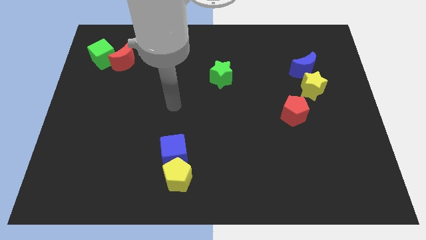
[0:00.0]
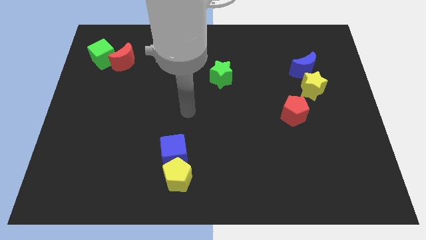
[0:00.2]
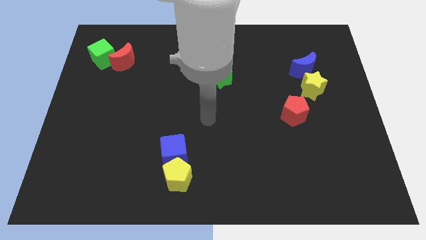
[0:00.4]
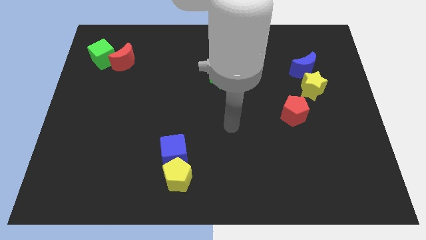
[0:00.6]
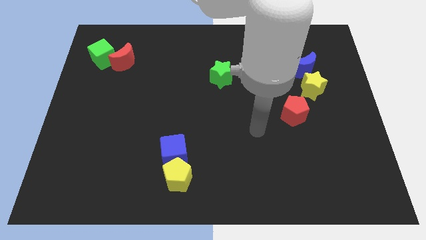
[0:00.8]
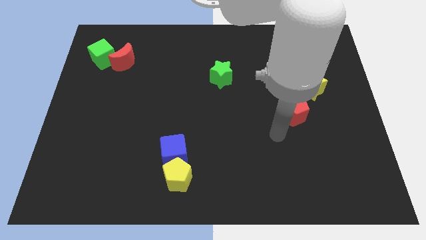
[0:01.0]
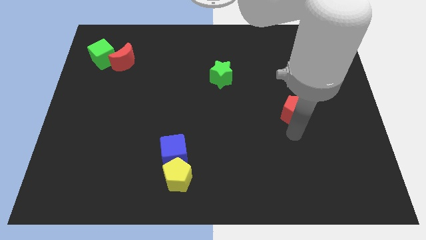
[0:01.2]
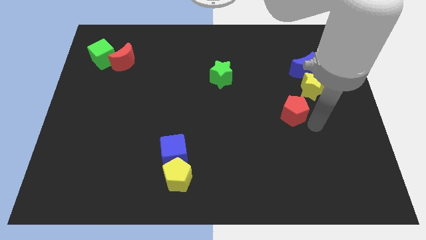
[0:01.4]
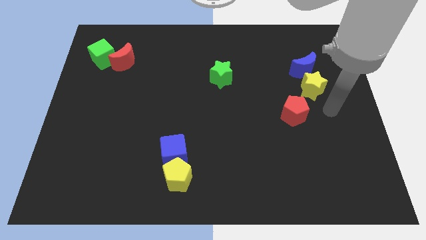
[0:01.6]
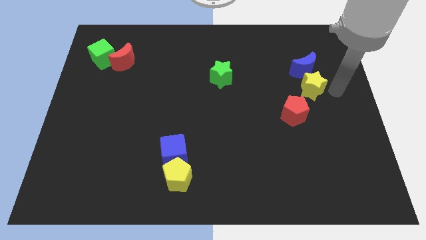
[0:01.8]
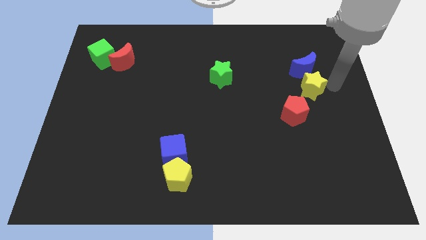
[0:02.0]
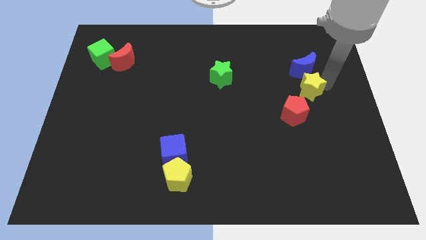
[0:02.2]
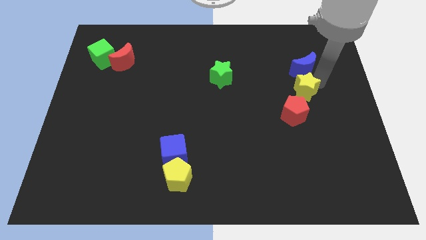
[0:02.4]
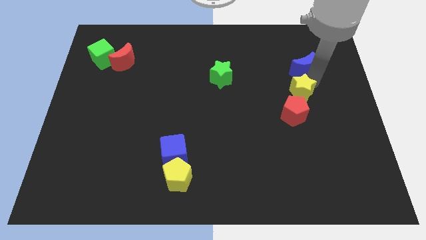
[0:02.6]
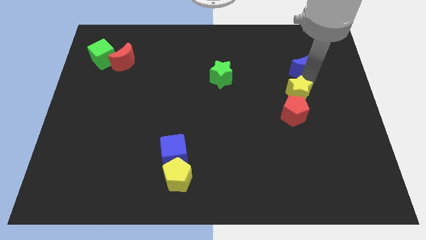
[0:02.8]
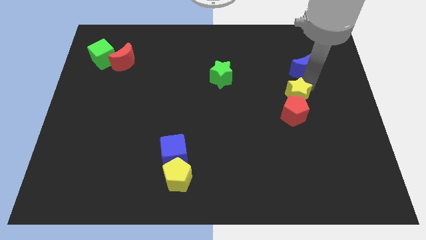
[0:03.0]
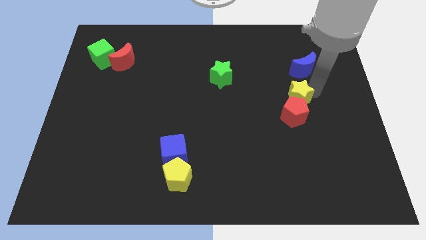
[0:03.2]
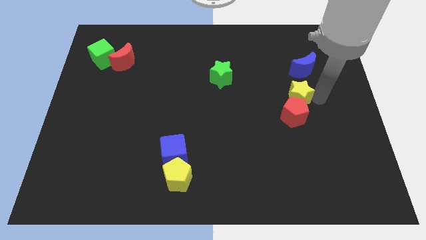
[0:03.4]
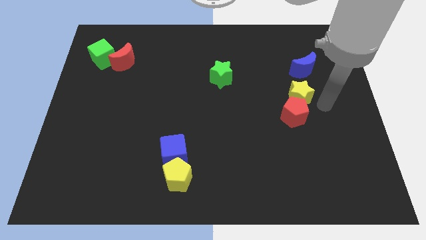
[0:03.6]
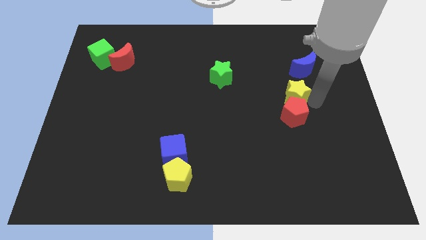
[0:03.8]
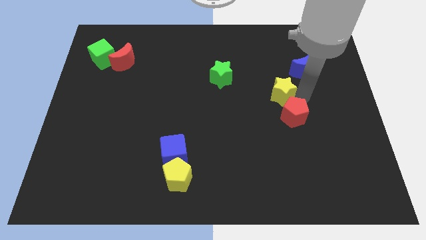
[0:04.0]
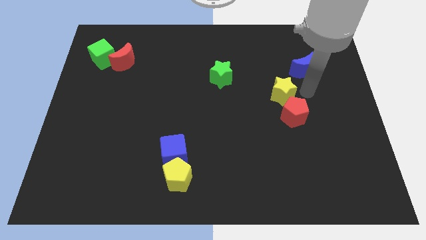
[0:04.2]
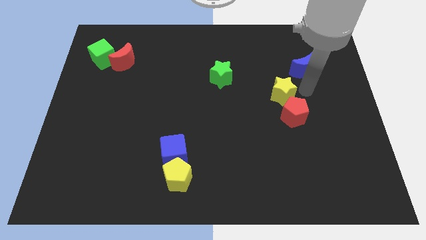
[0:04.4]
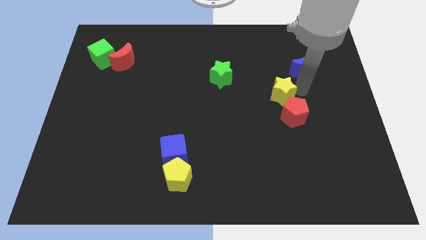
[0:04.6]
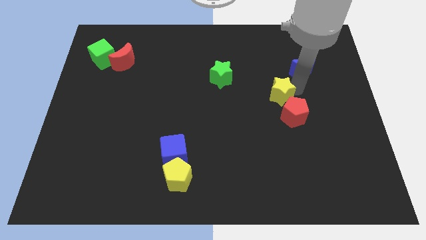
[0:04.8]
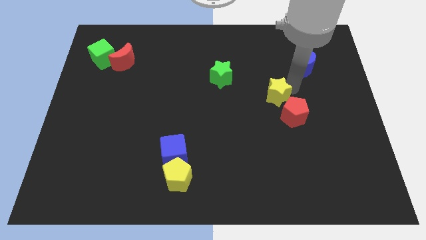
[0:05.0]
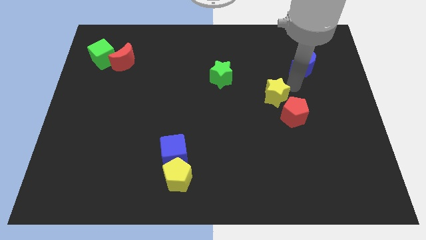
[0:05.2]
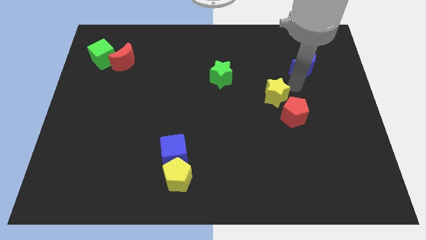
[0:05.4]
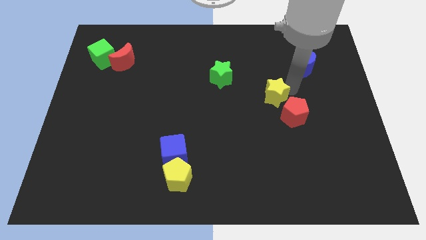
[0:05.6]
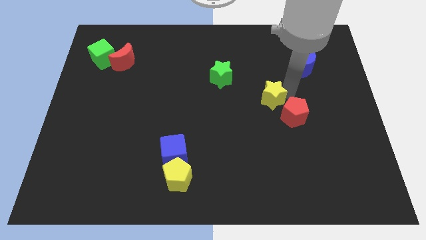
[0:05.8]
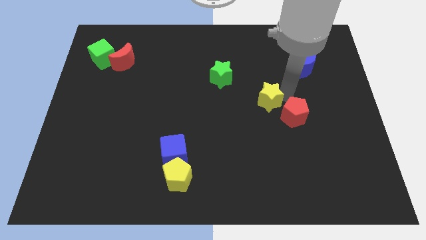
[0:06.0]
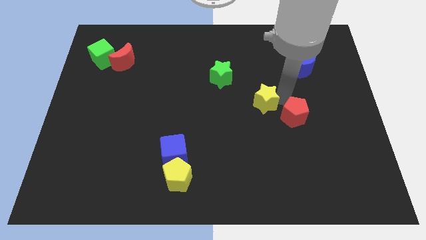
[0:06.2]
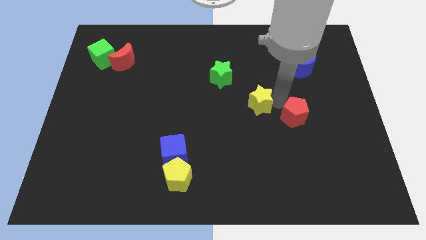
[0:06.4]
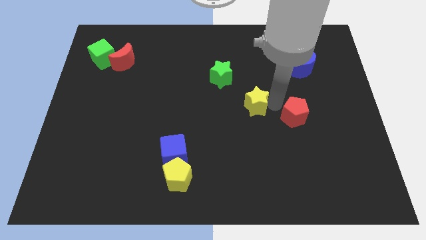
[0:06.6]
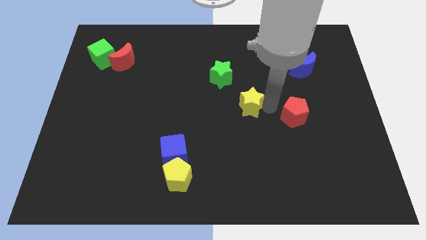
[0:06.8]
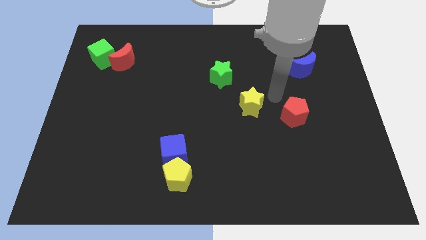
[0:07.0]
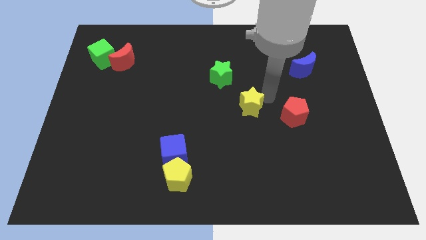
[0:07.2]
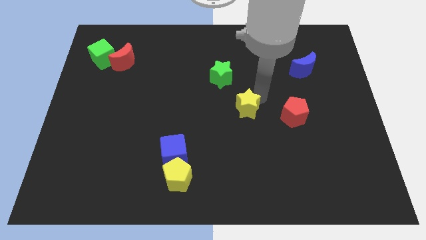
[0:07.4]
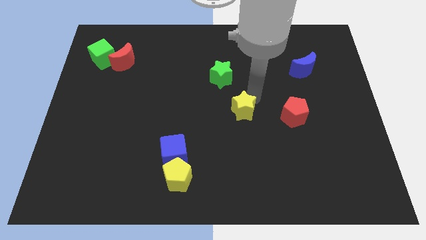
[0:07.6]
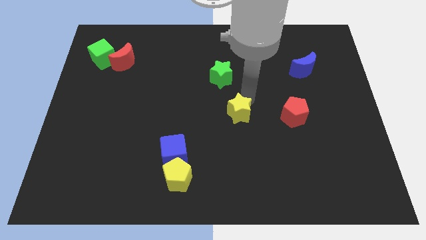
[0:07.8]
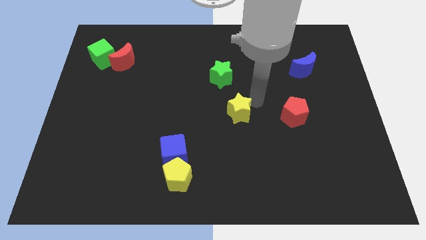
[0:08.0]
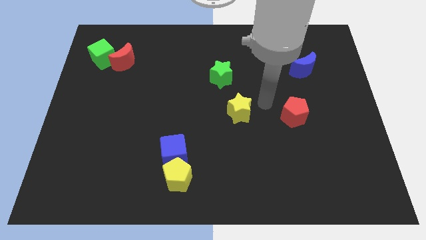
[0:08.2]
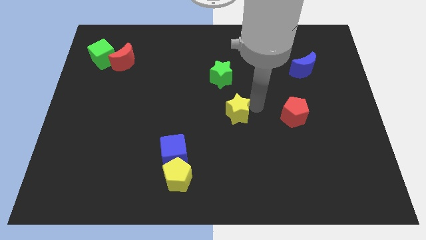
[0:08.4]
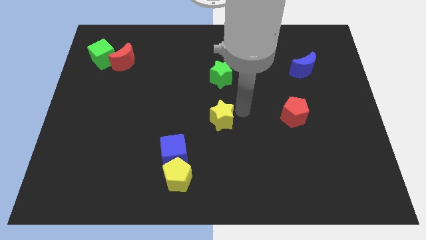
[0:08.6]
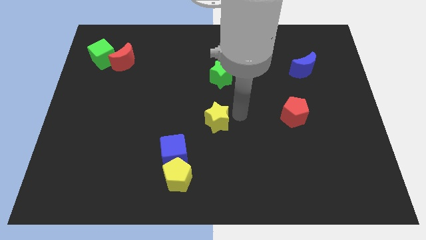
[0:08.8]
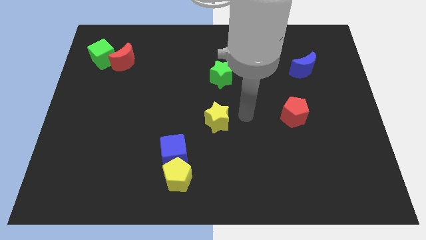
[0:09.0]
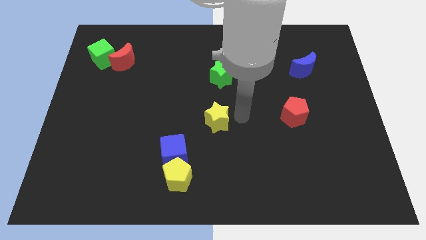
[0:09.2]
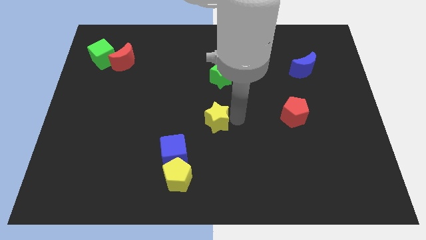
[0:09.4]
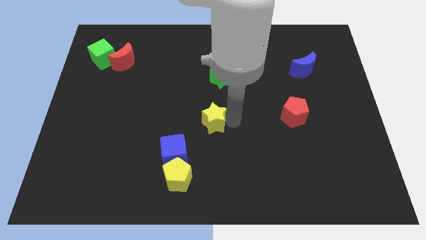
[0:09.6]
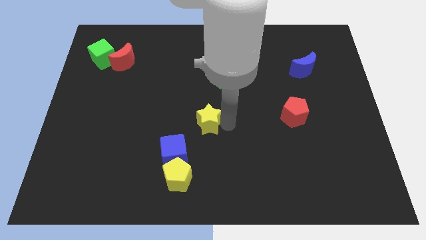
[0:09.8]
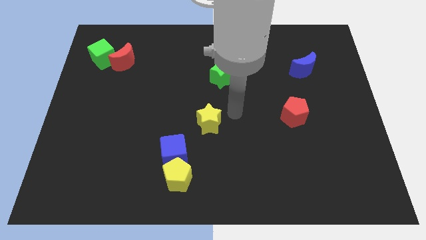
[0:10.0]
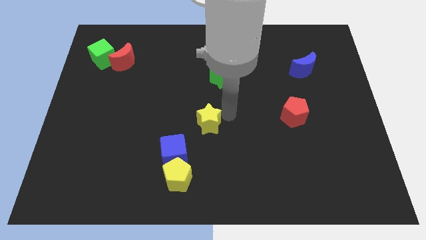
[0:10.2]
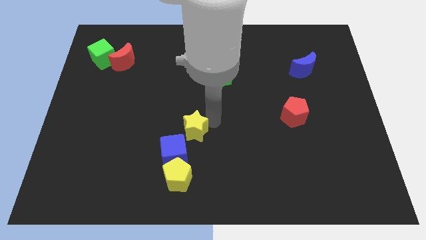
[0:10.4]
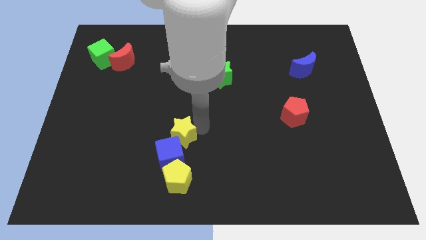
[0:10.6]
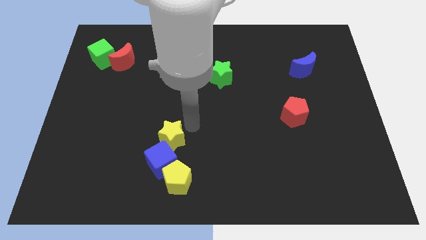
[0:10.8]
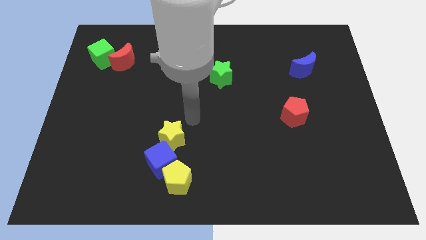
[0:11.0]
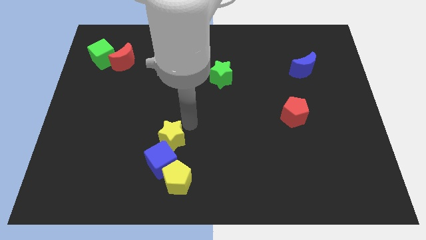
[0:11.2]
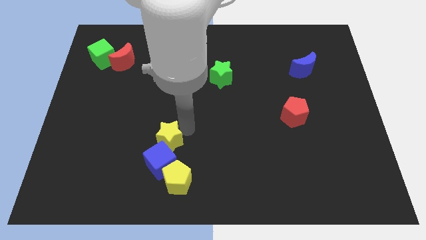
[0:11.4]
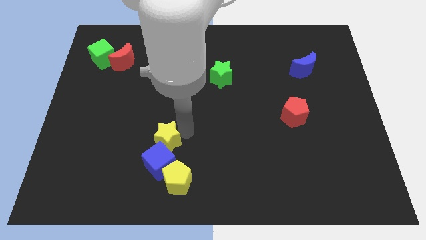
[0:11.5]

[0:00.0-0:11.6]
slide the yellow star to the top left side of the yellow pentagon

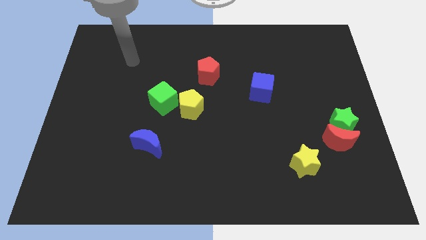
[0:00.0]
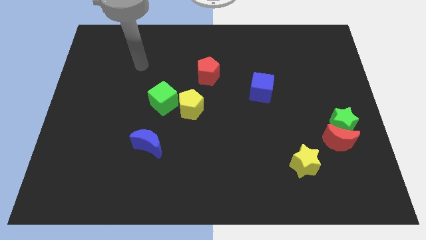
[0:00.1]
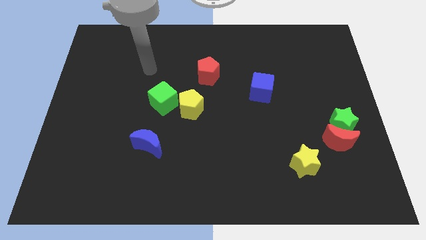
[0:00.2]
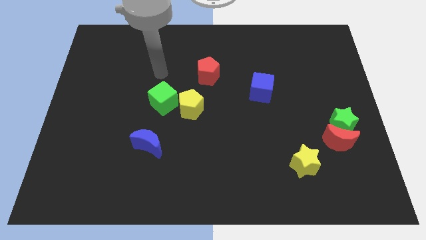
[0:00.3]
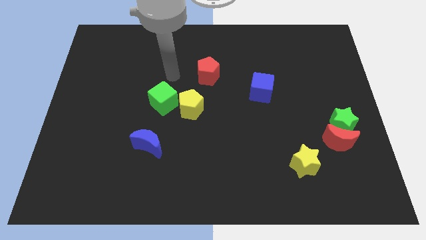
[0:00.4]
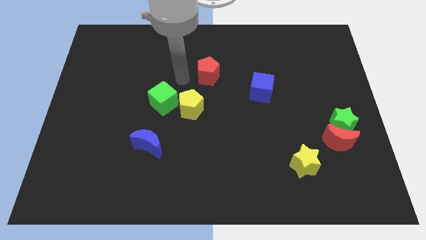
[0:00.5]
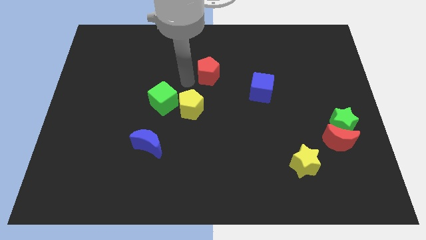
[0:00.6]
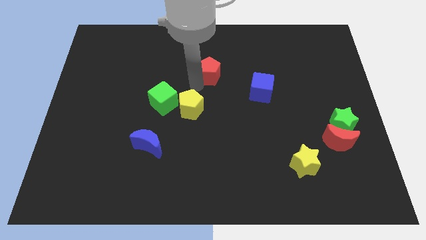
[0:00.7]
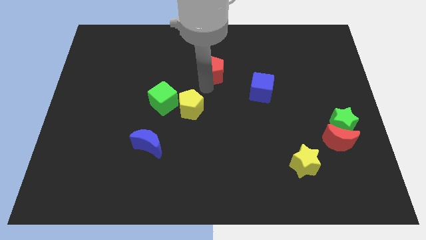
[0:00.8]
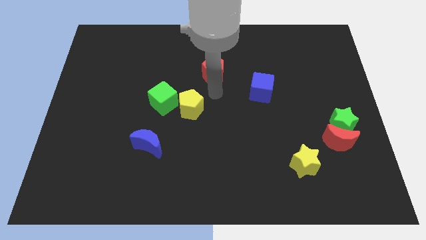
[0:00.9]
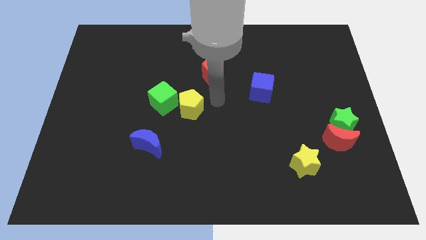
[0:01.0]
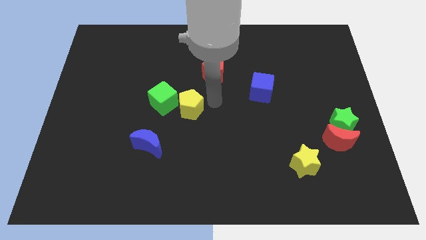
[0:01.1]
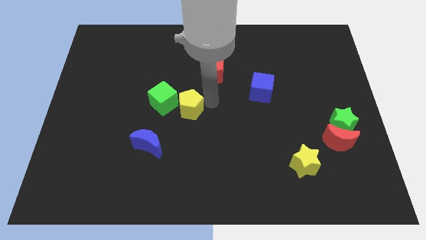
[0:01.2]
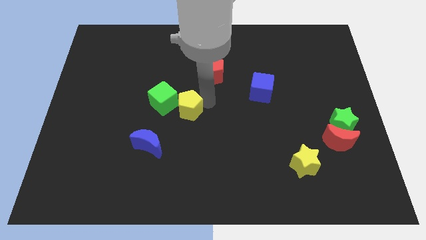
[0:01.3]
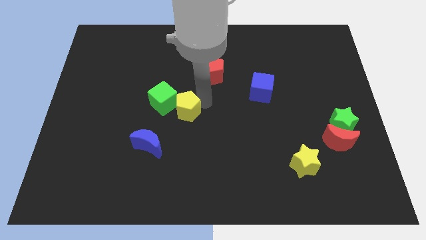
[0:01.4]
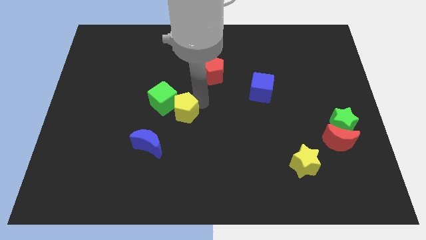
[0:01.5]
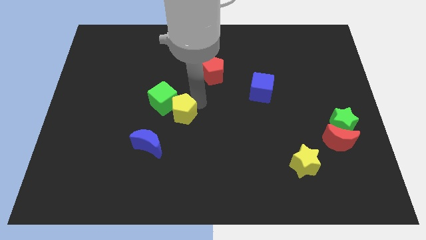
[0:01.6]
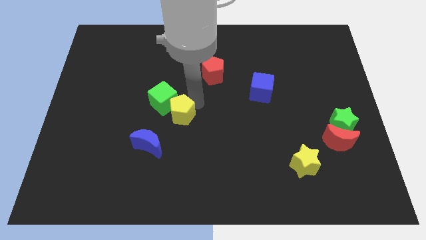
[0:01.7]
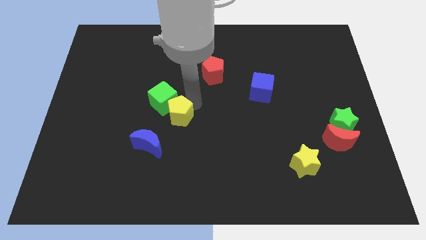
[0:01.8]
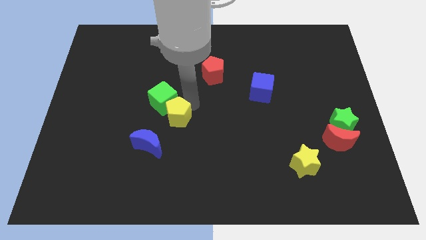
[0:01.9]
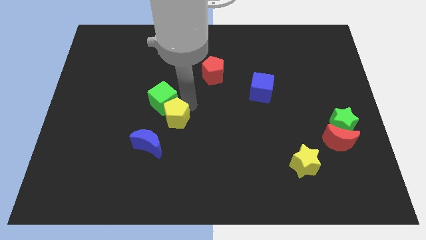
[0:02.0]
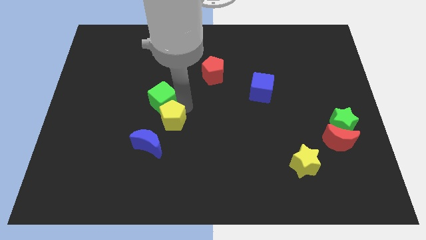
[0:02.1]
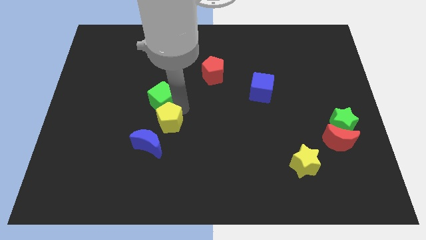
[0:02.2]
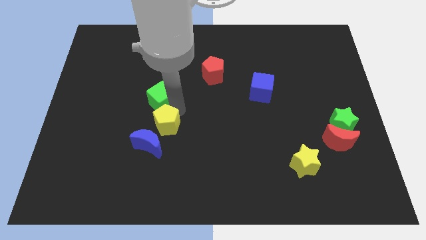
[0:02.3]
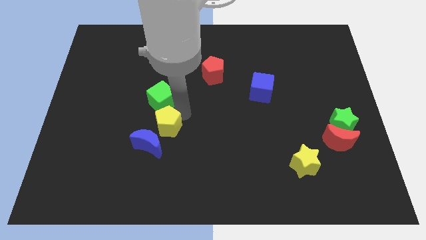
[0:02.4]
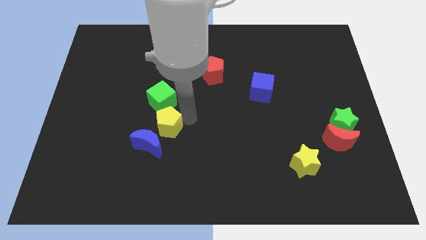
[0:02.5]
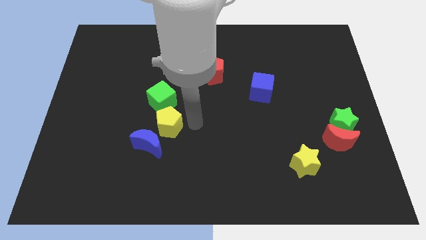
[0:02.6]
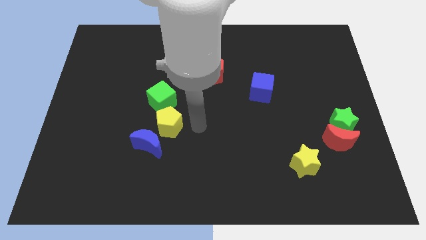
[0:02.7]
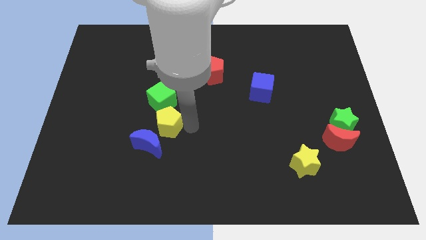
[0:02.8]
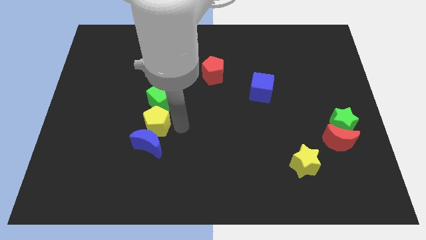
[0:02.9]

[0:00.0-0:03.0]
slide the yellow pentagon to the top left side of the blue moon
